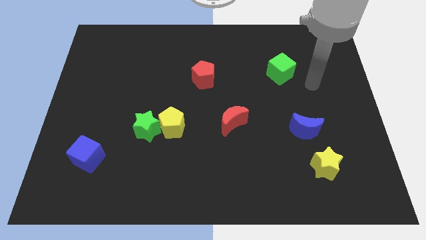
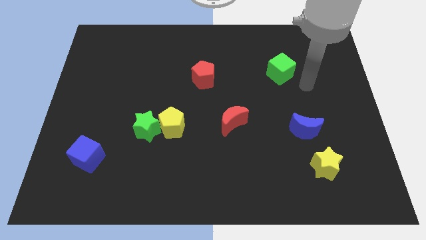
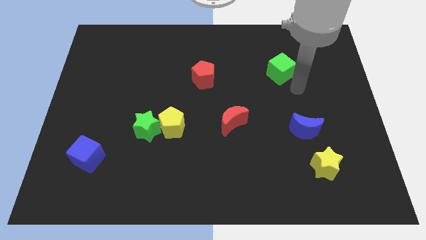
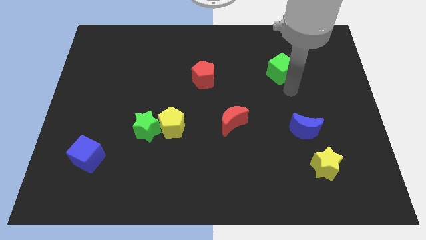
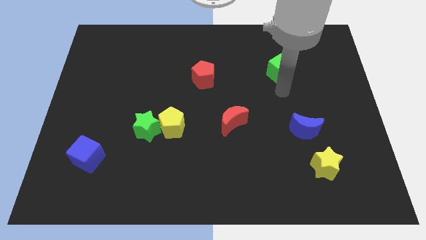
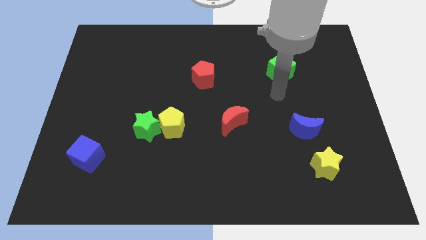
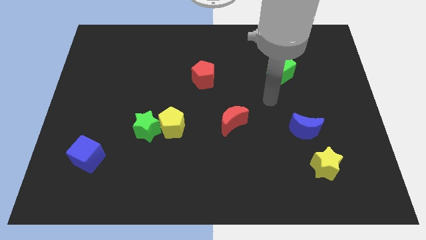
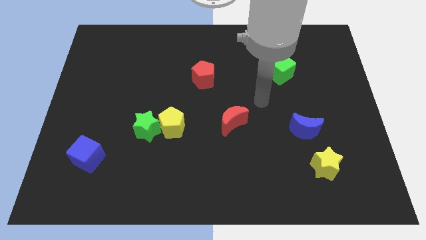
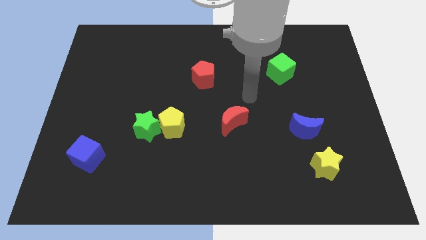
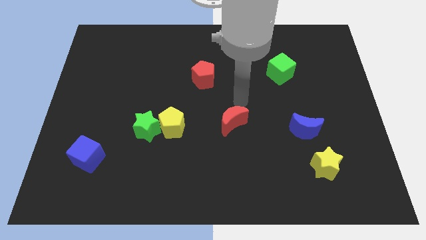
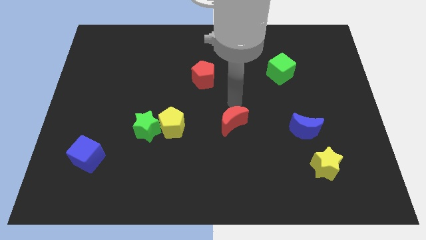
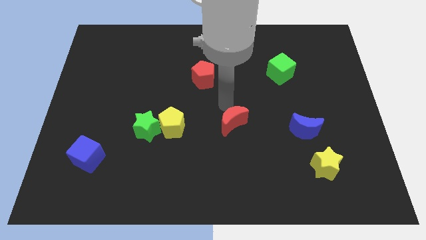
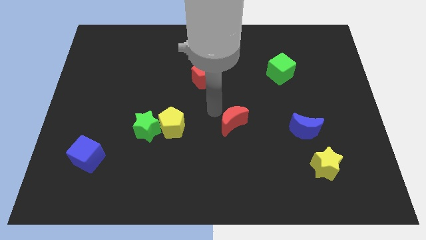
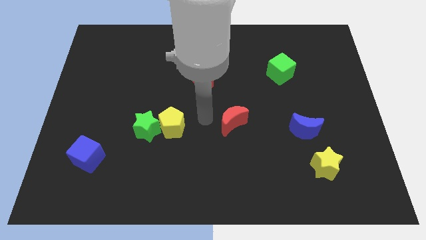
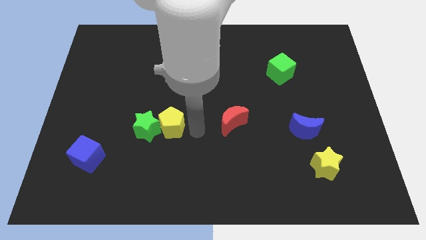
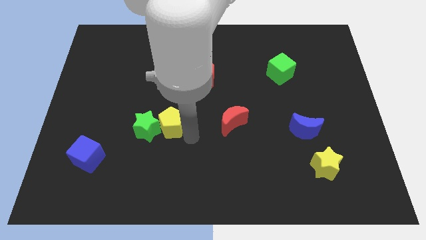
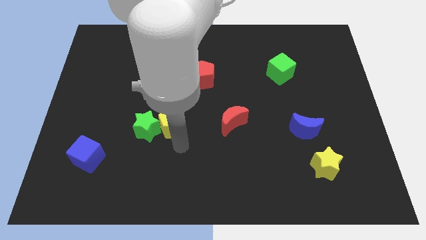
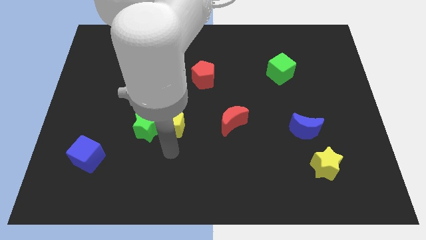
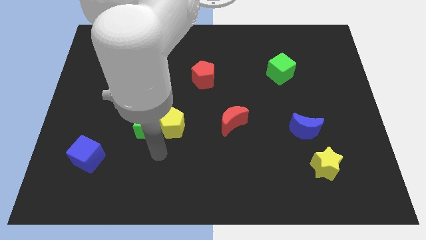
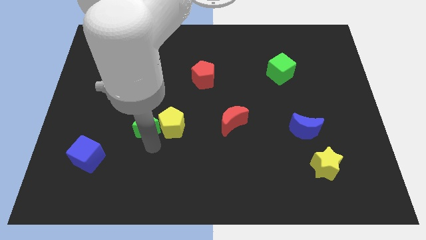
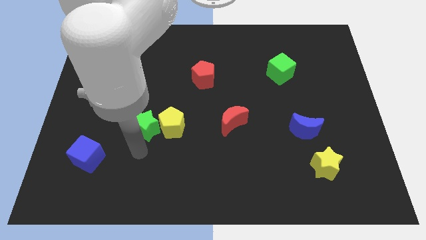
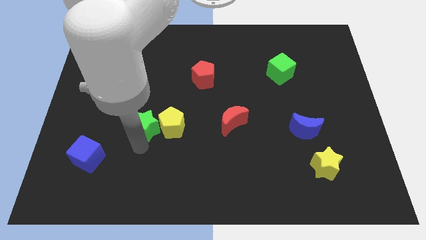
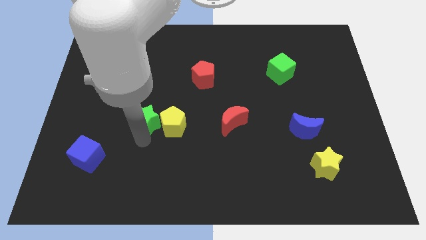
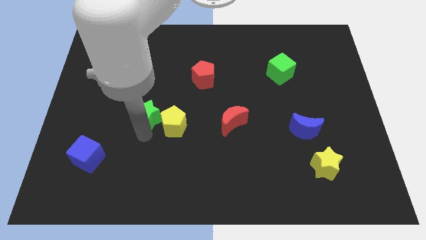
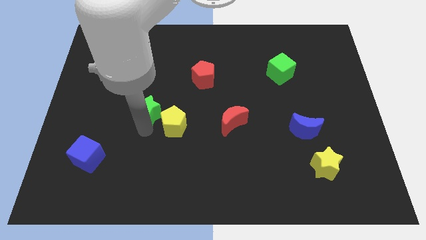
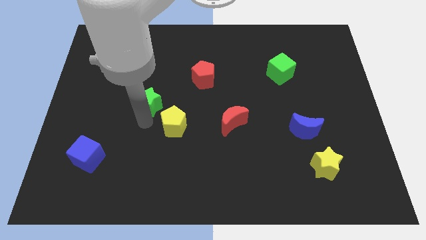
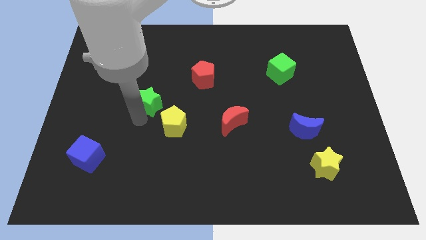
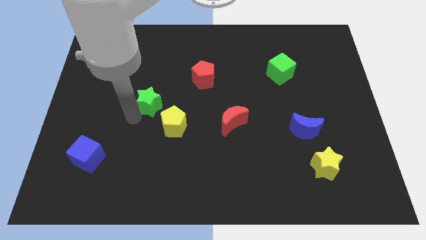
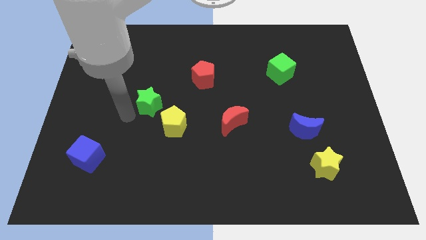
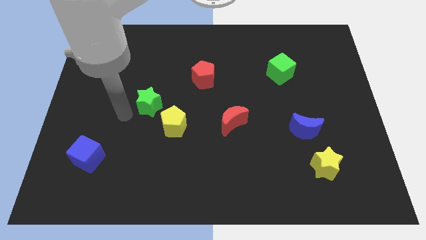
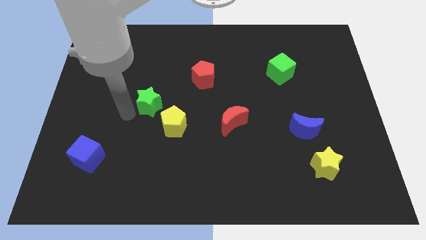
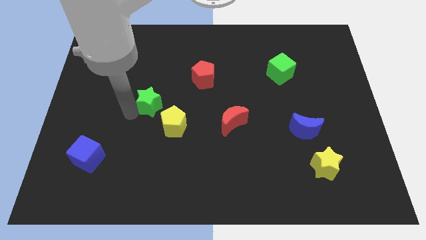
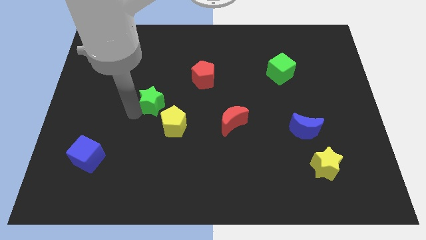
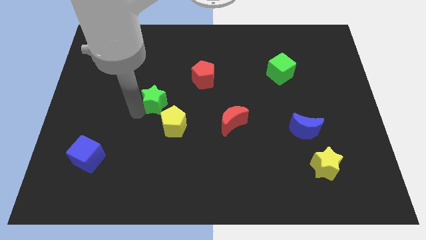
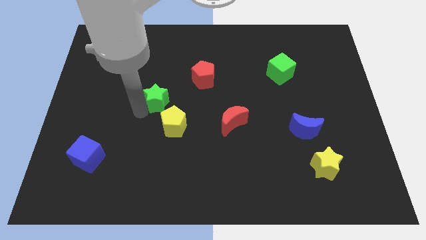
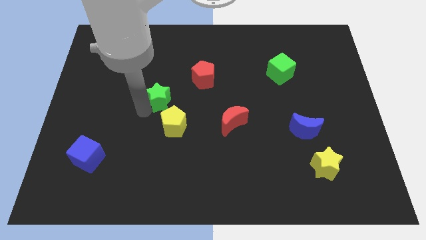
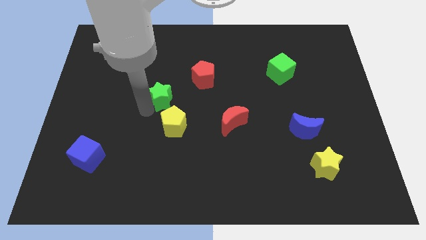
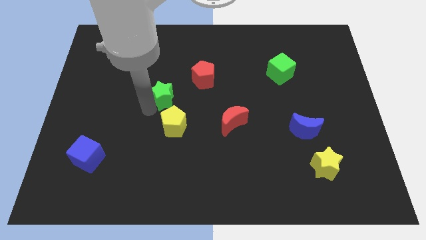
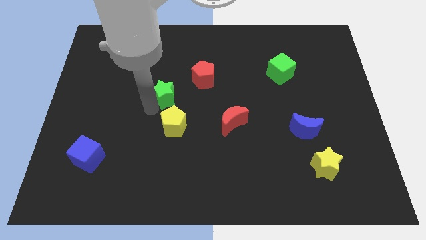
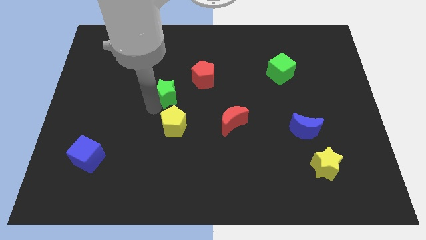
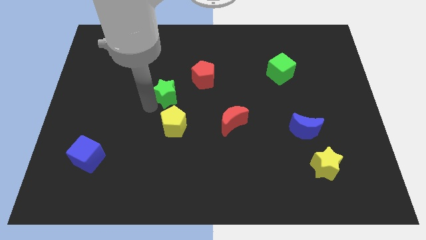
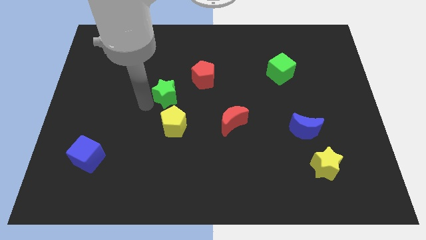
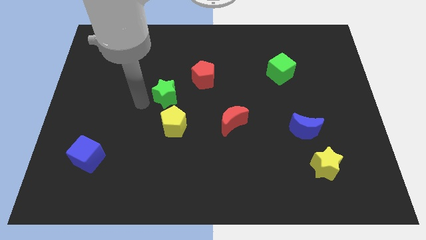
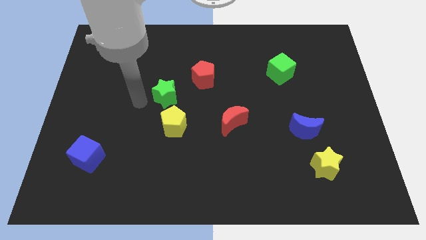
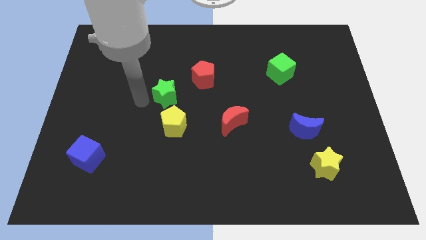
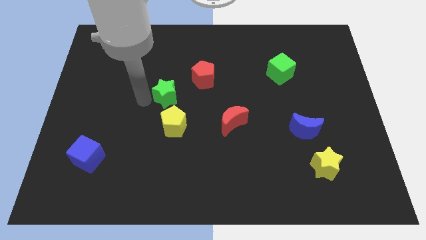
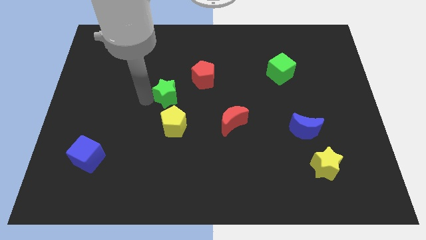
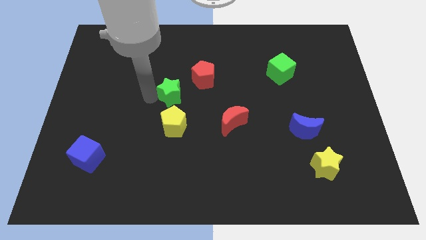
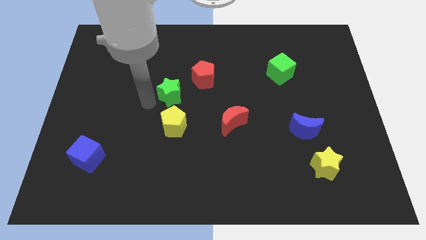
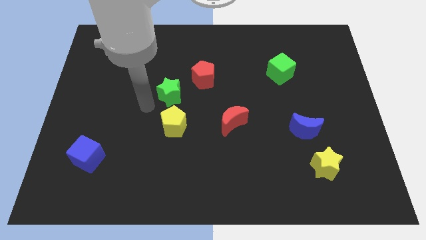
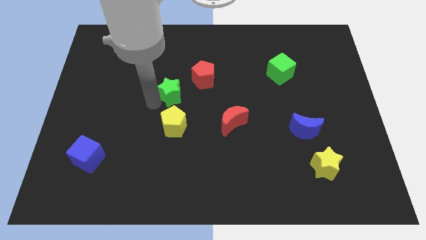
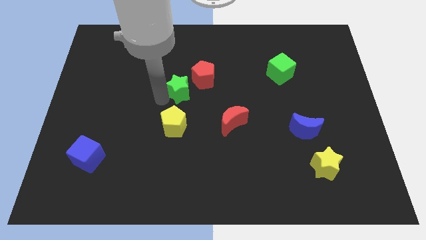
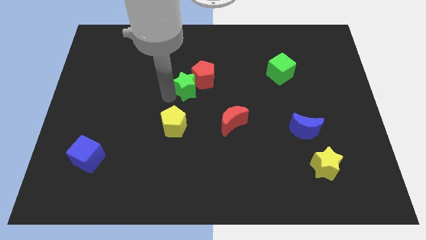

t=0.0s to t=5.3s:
move the green star to the red pentagon

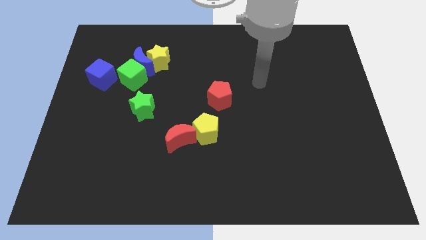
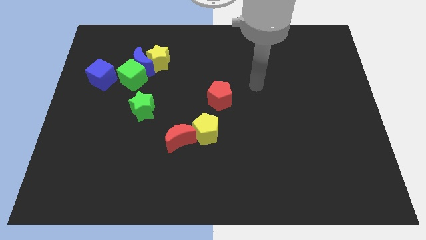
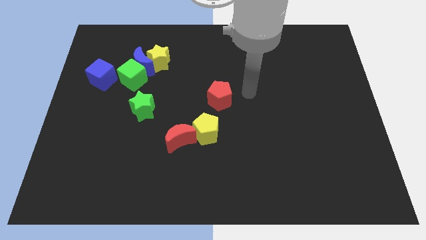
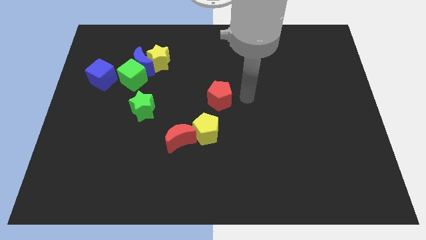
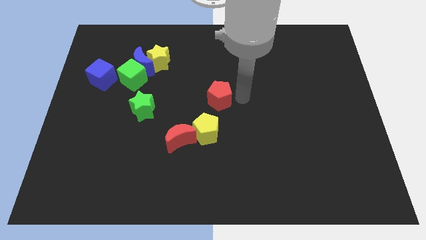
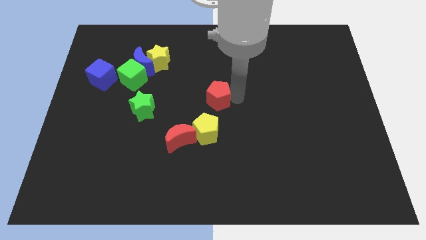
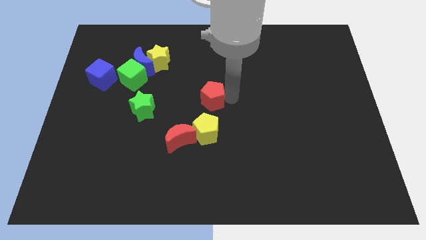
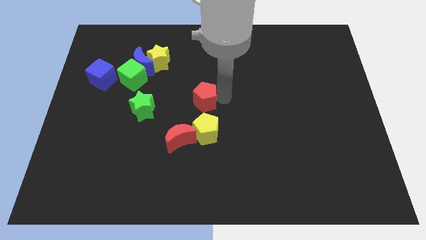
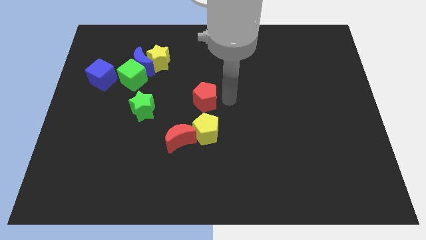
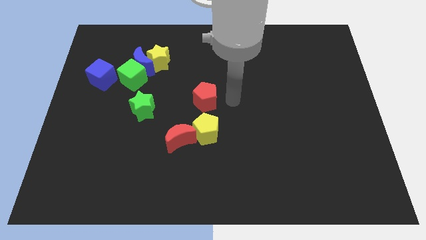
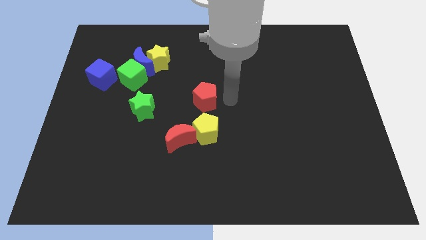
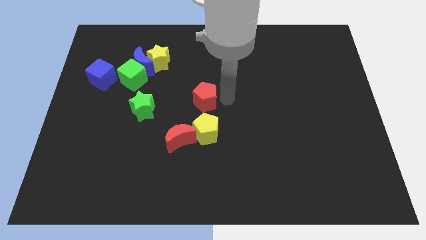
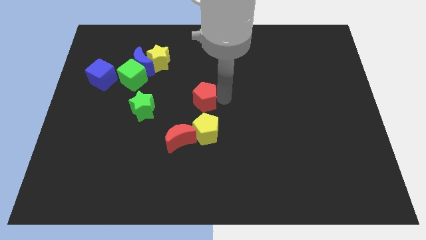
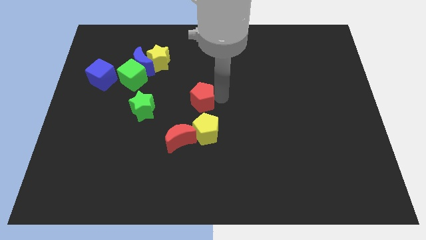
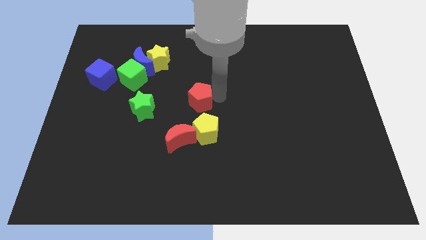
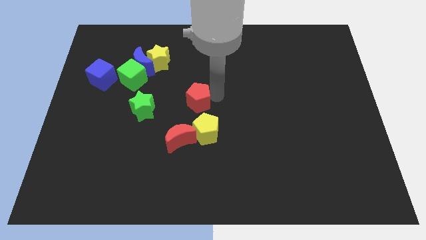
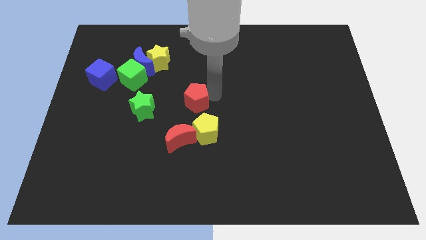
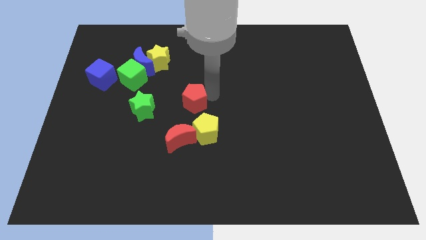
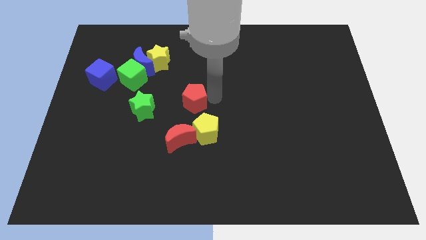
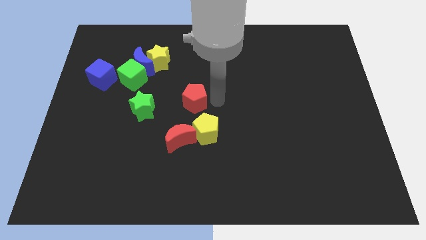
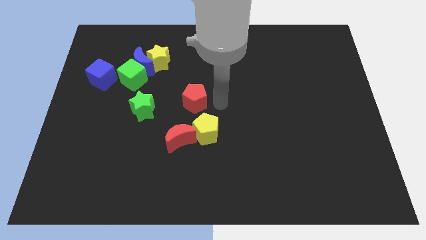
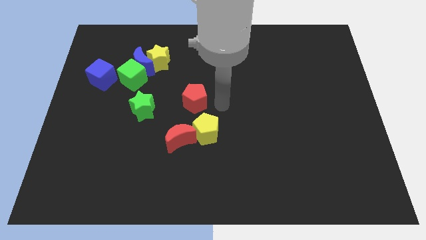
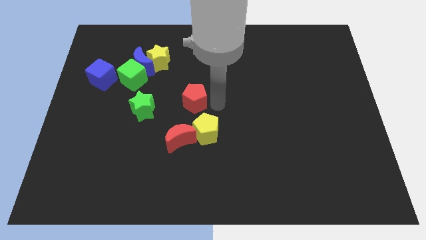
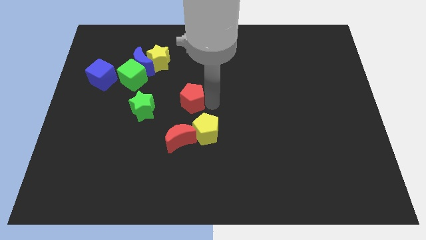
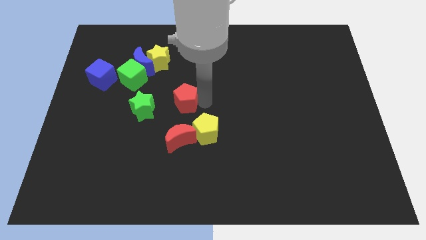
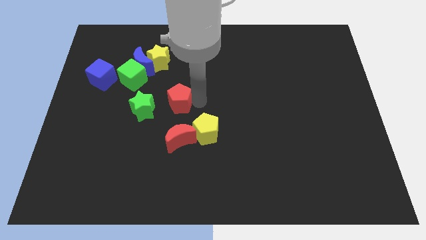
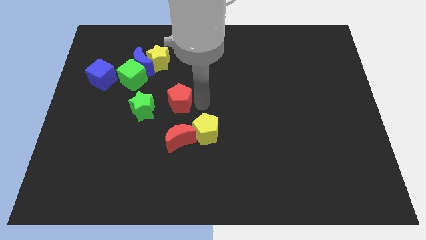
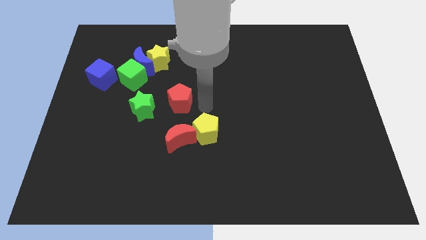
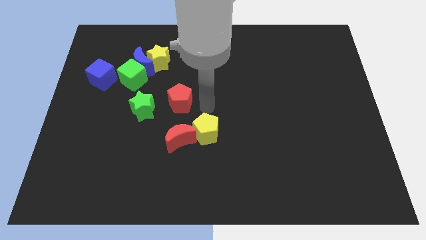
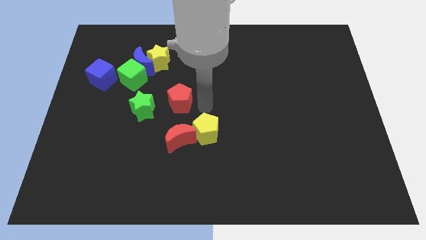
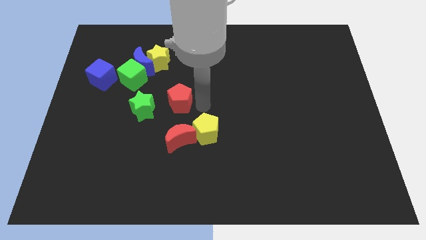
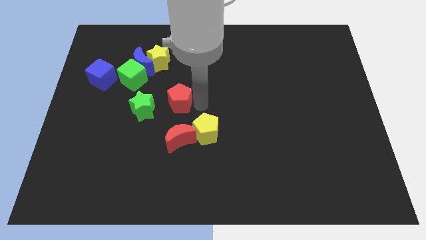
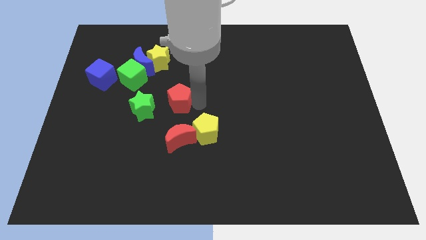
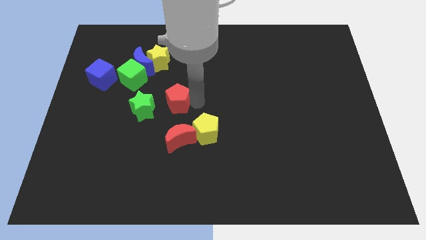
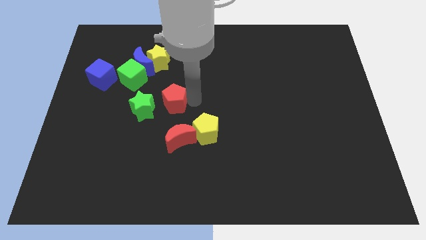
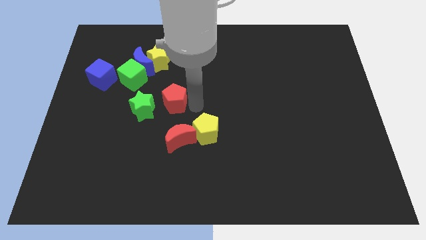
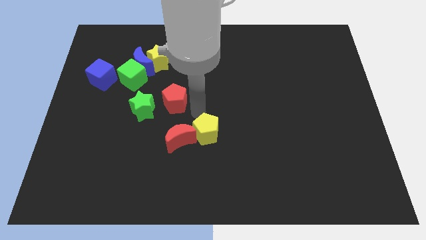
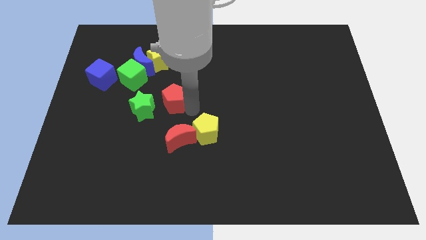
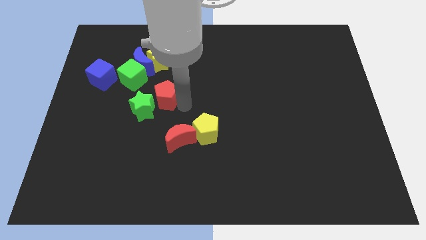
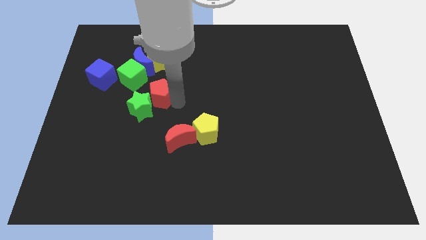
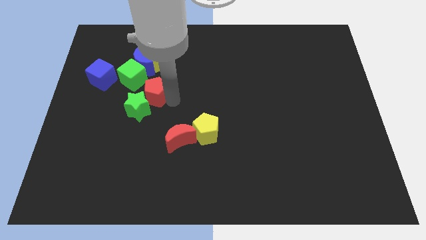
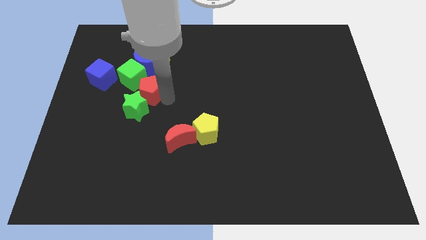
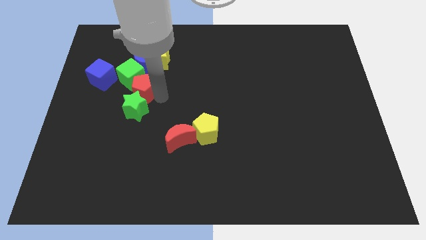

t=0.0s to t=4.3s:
move the red pentagon close to the green cube
